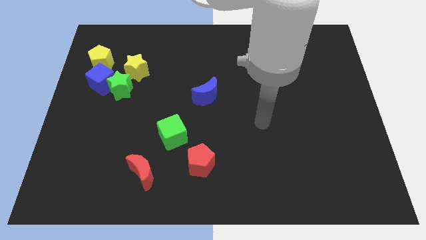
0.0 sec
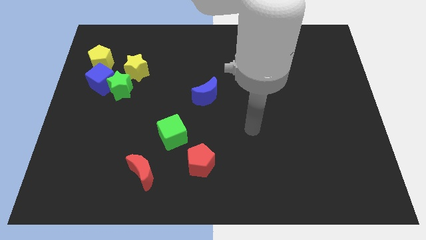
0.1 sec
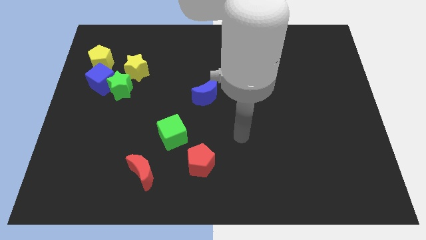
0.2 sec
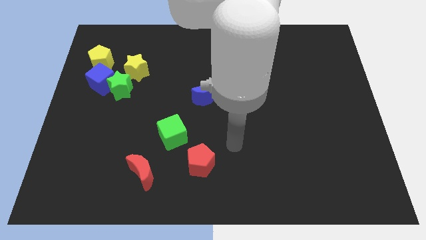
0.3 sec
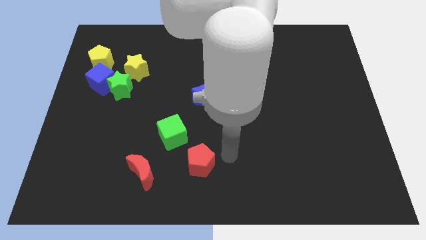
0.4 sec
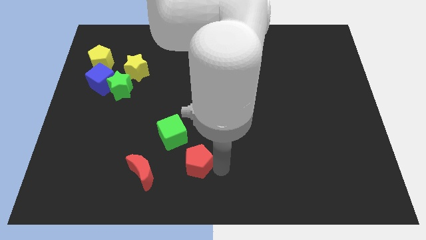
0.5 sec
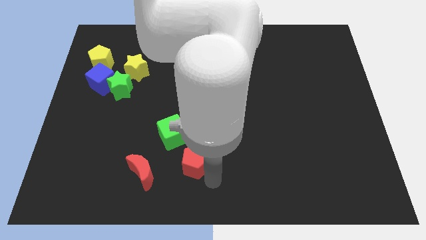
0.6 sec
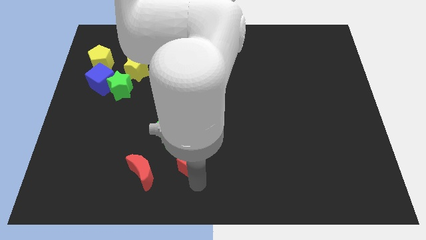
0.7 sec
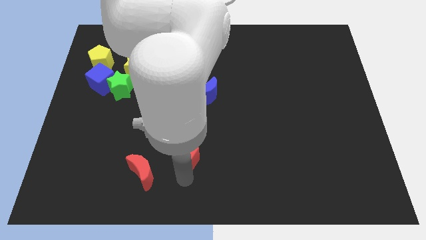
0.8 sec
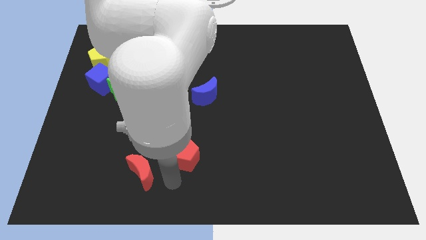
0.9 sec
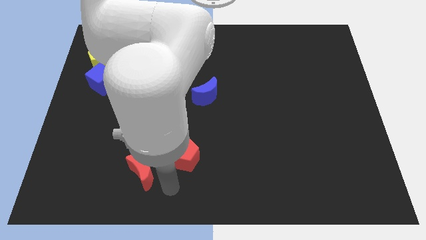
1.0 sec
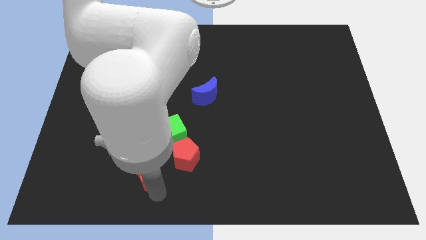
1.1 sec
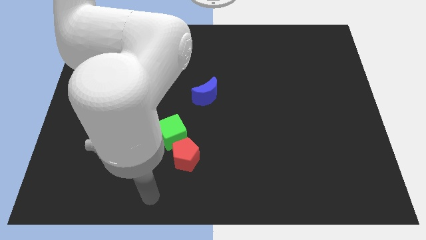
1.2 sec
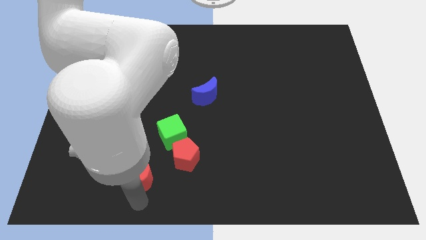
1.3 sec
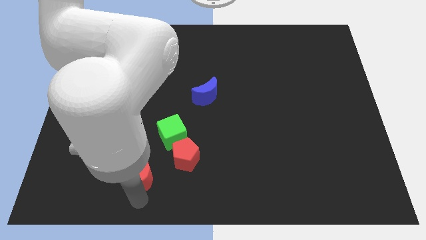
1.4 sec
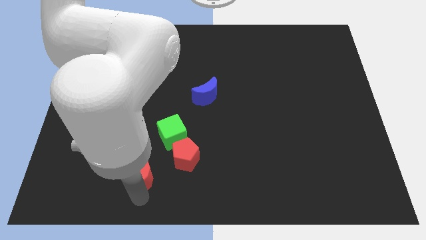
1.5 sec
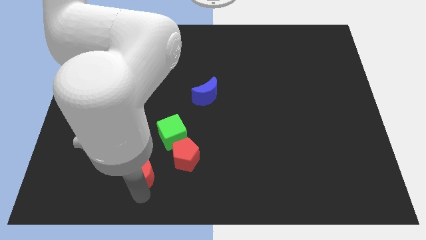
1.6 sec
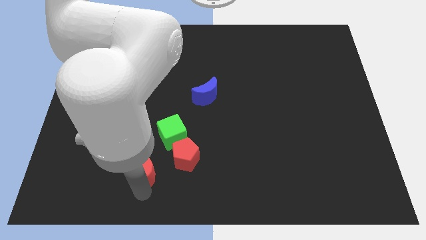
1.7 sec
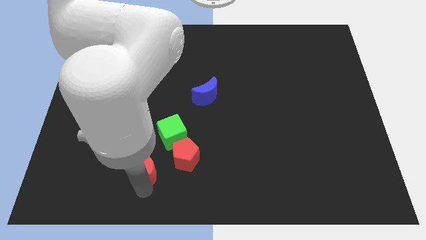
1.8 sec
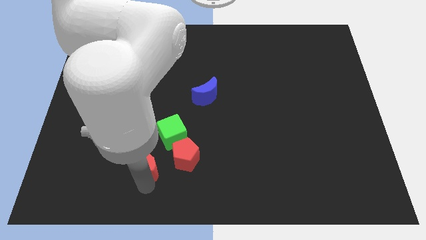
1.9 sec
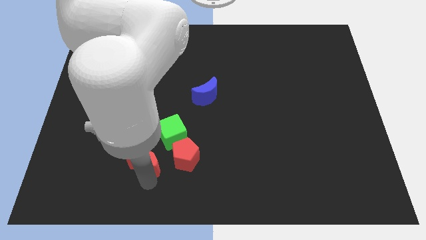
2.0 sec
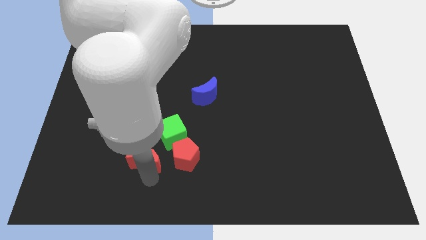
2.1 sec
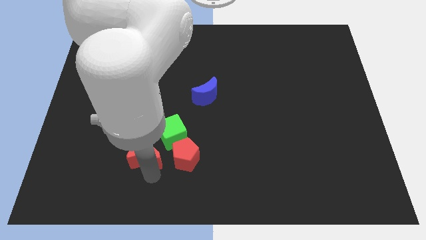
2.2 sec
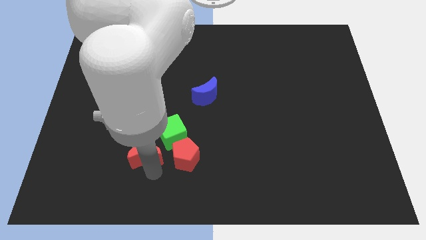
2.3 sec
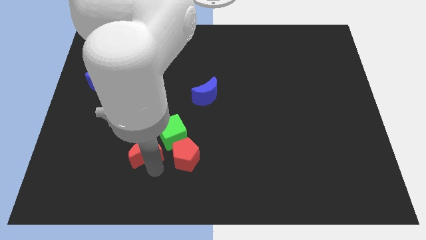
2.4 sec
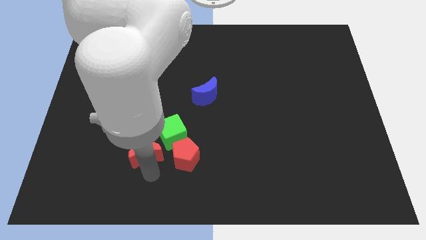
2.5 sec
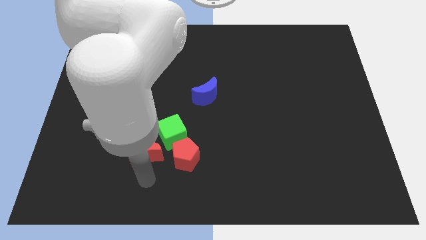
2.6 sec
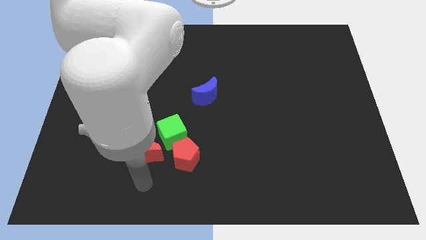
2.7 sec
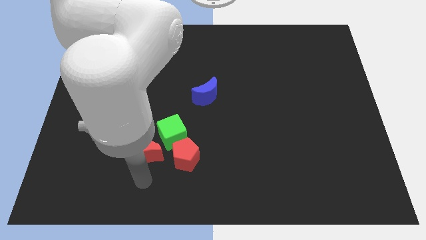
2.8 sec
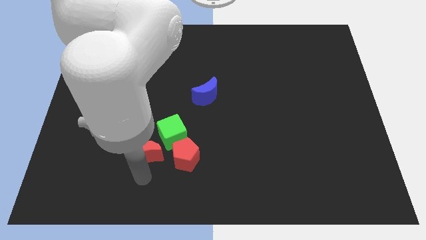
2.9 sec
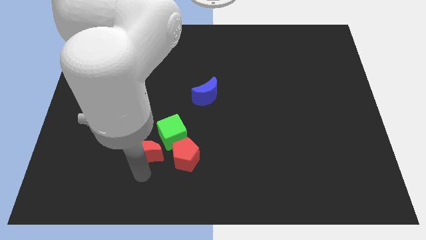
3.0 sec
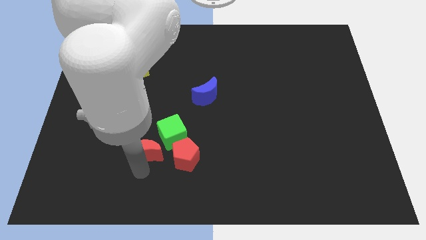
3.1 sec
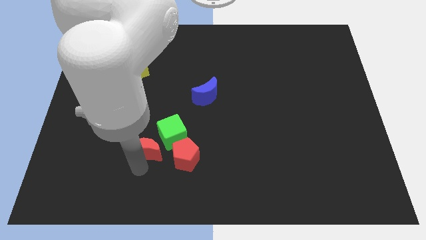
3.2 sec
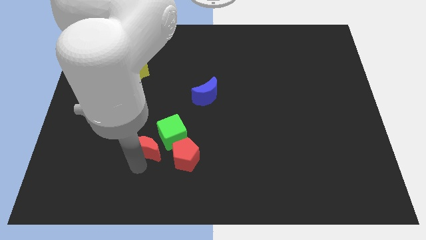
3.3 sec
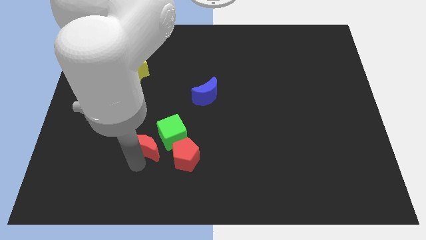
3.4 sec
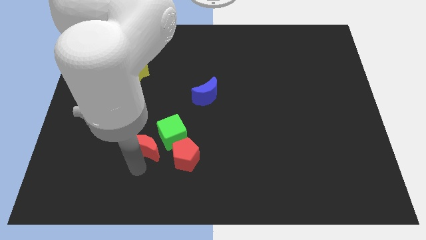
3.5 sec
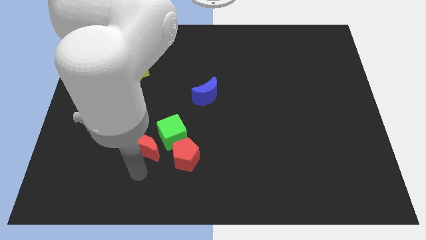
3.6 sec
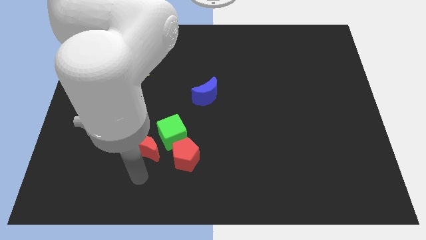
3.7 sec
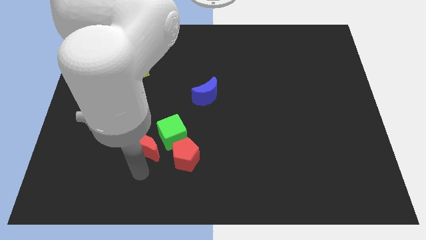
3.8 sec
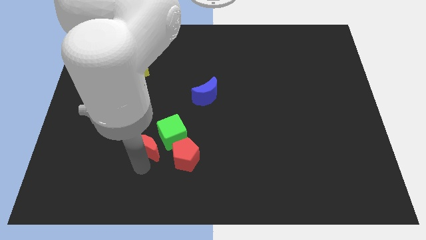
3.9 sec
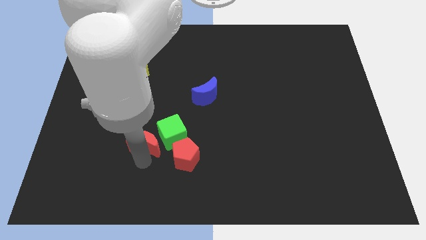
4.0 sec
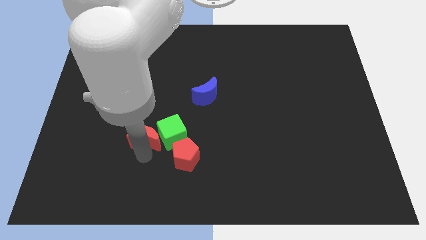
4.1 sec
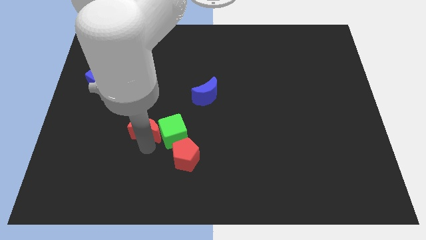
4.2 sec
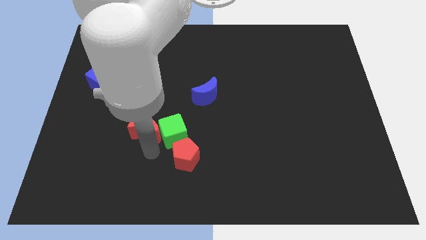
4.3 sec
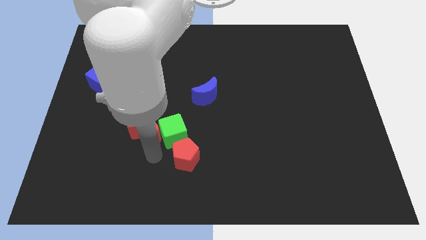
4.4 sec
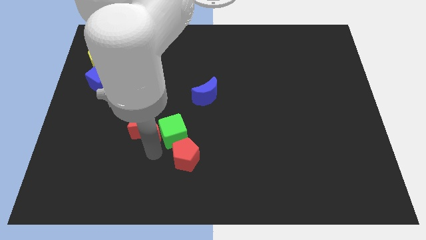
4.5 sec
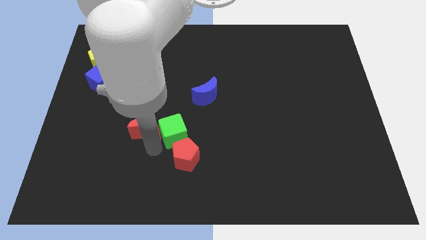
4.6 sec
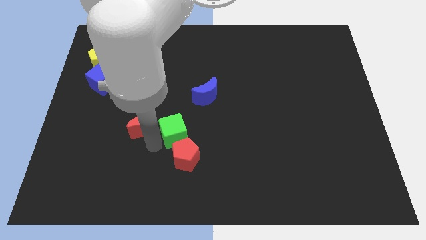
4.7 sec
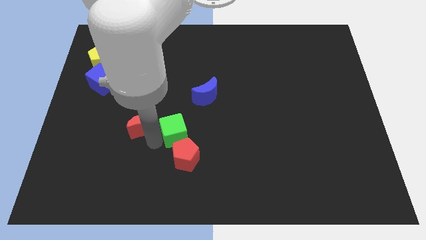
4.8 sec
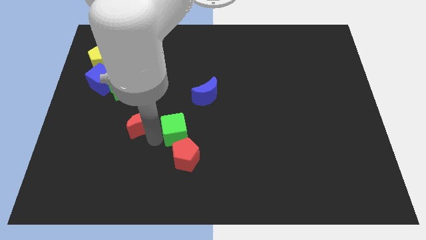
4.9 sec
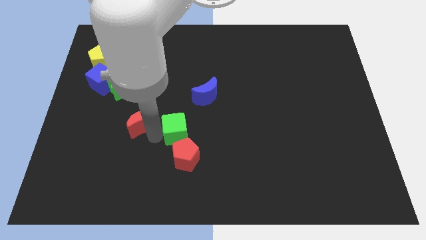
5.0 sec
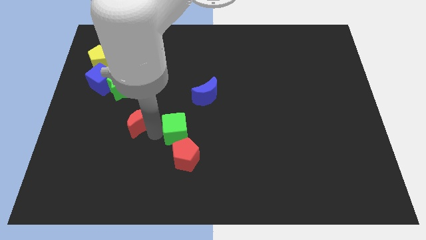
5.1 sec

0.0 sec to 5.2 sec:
slide the red moon to the bottom right side of the green star
